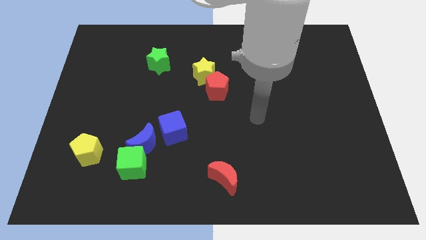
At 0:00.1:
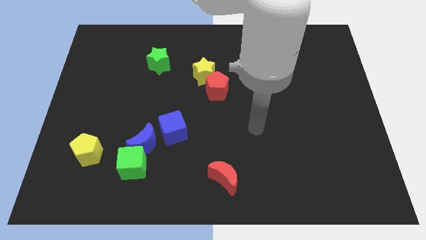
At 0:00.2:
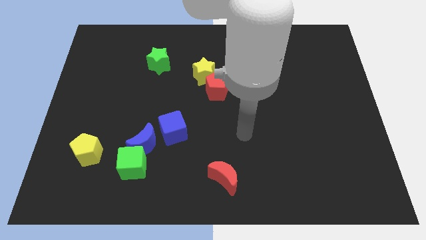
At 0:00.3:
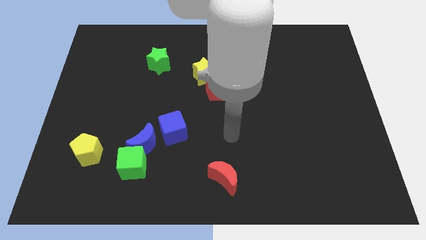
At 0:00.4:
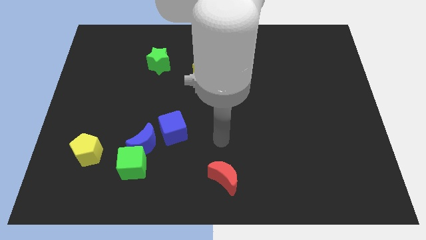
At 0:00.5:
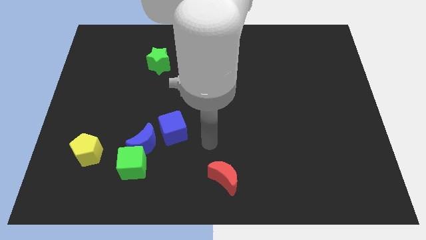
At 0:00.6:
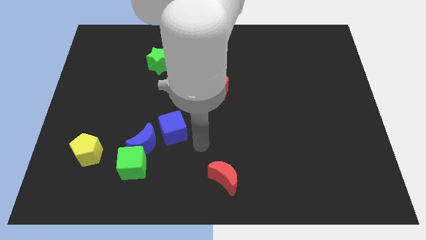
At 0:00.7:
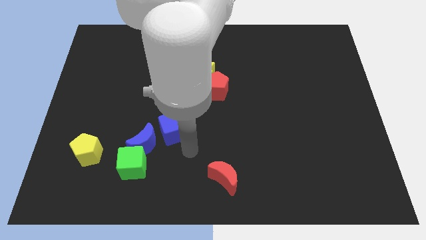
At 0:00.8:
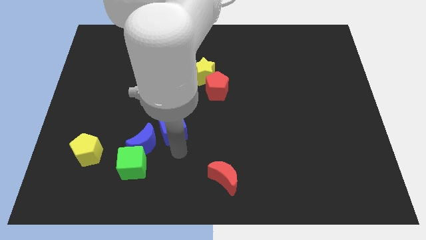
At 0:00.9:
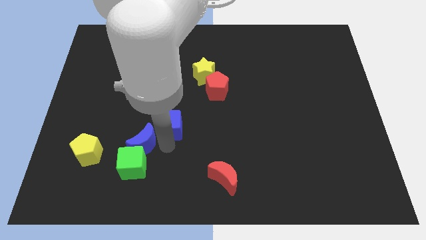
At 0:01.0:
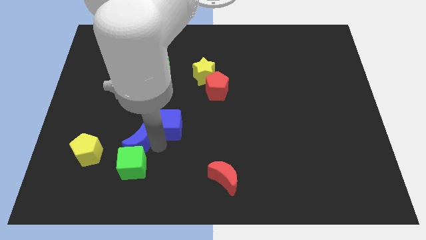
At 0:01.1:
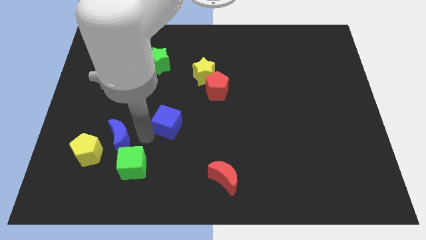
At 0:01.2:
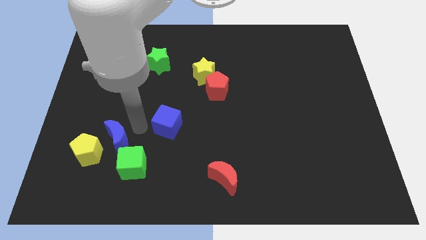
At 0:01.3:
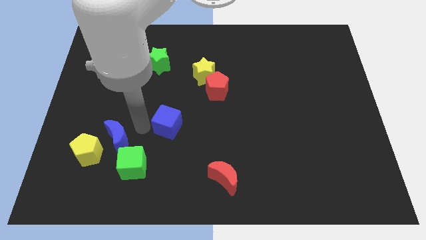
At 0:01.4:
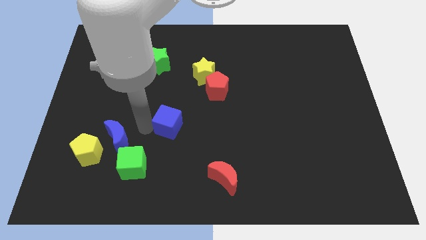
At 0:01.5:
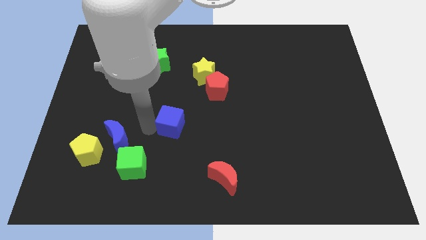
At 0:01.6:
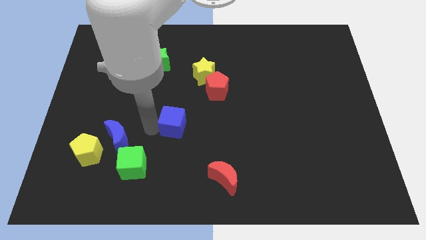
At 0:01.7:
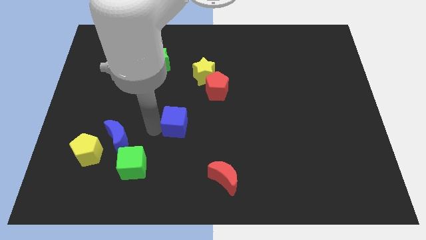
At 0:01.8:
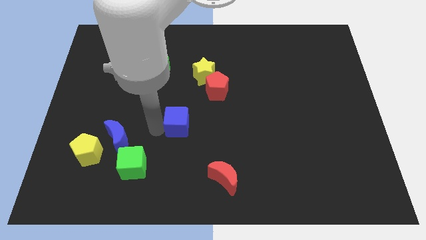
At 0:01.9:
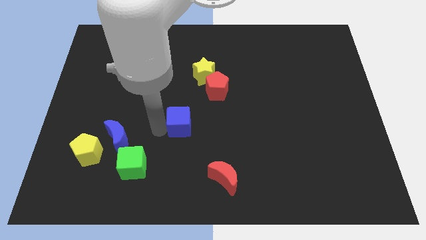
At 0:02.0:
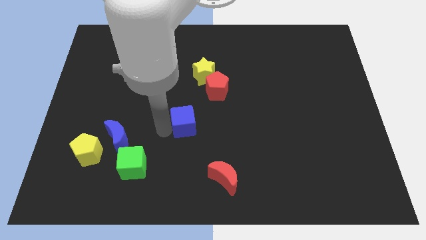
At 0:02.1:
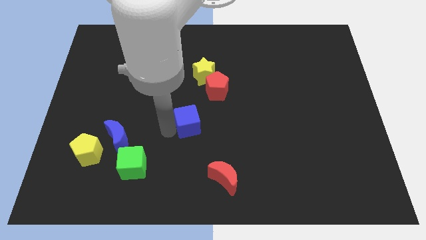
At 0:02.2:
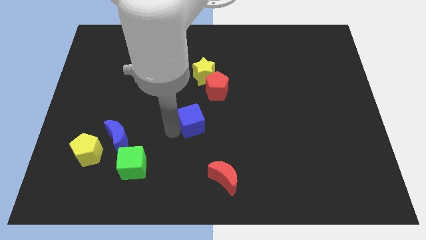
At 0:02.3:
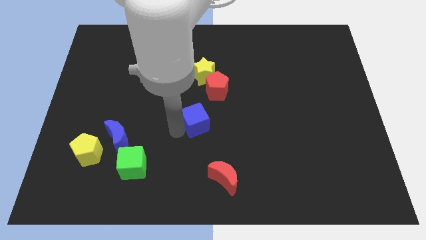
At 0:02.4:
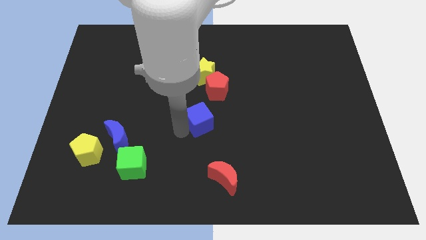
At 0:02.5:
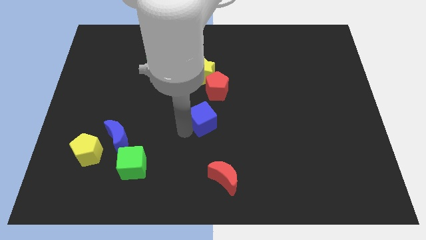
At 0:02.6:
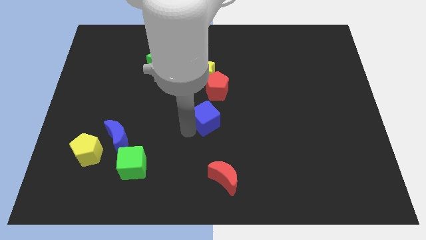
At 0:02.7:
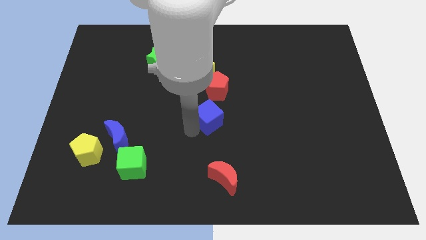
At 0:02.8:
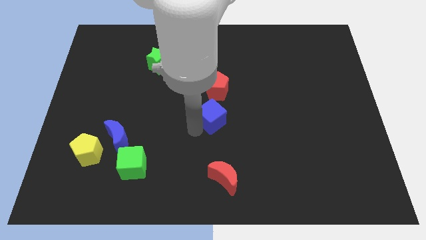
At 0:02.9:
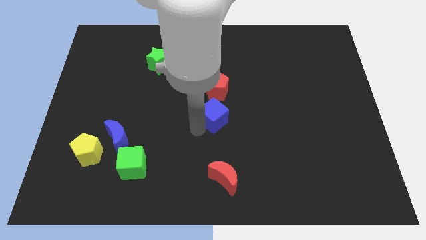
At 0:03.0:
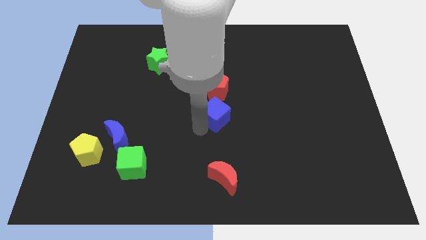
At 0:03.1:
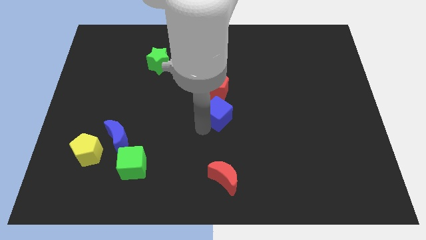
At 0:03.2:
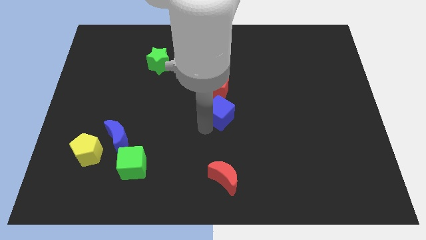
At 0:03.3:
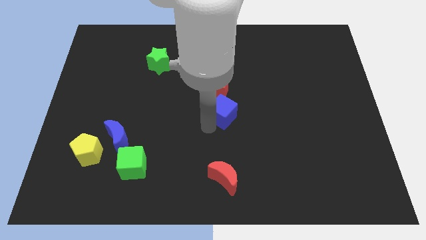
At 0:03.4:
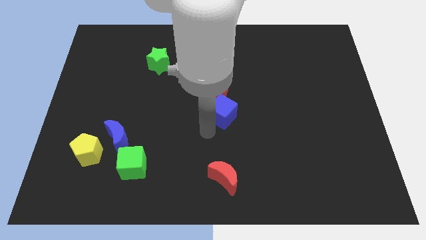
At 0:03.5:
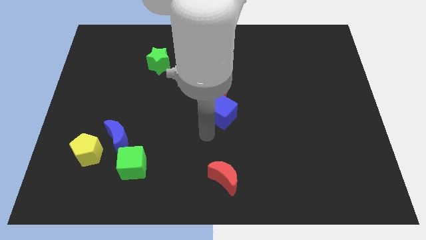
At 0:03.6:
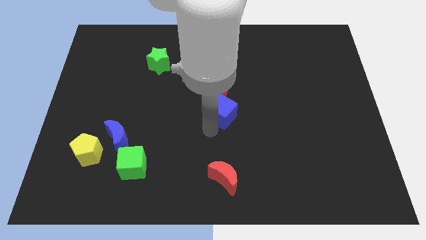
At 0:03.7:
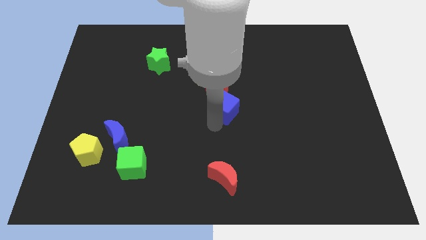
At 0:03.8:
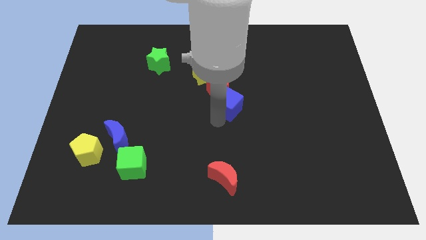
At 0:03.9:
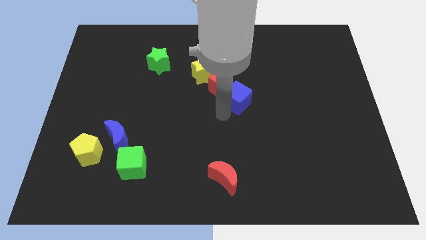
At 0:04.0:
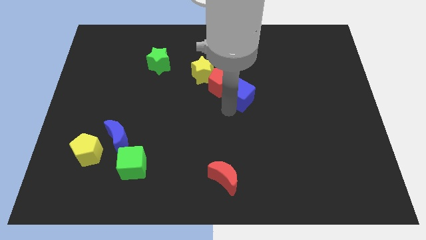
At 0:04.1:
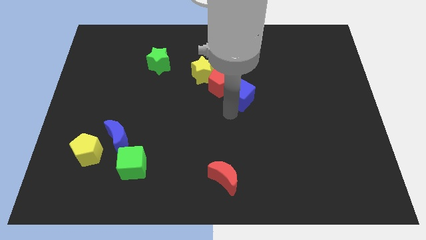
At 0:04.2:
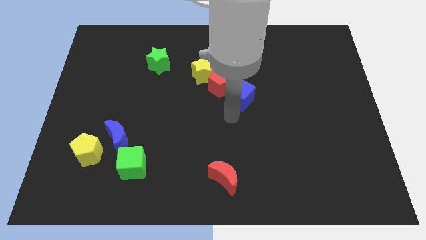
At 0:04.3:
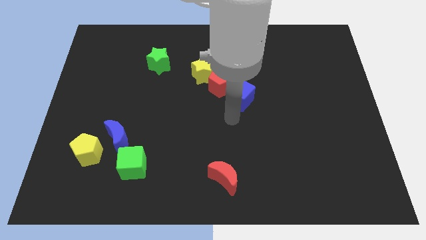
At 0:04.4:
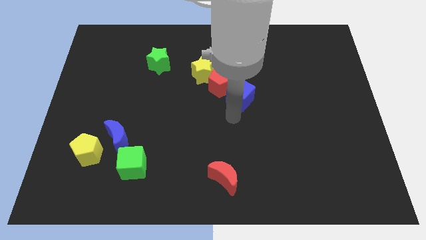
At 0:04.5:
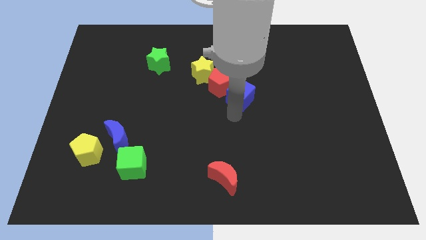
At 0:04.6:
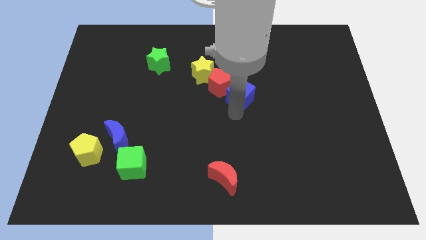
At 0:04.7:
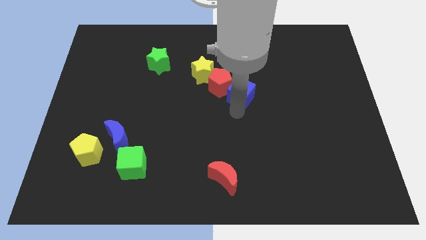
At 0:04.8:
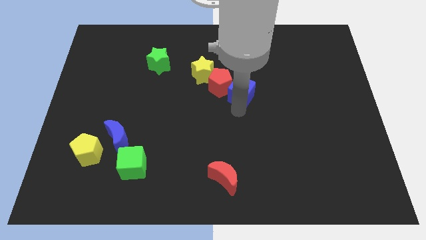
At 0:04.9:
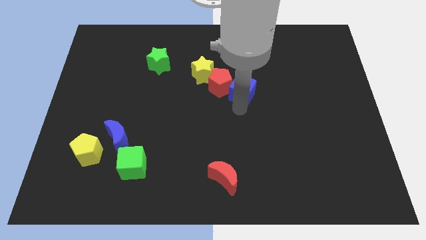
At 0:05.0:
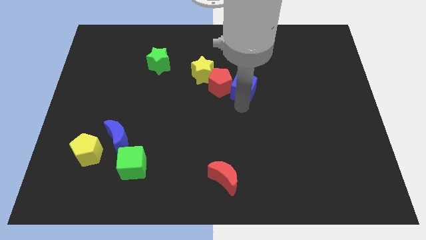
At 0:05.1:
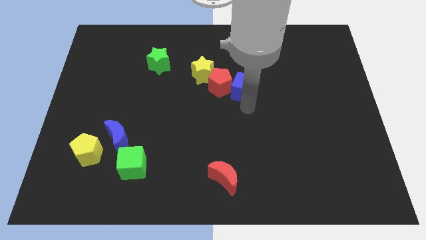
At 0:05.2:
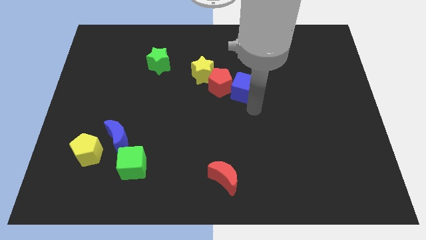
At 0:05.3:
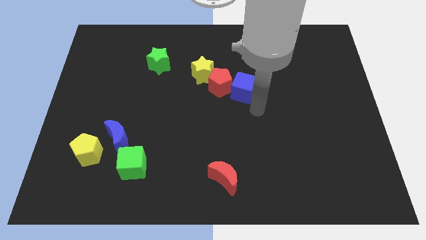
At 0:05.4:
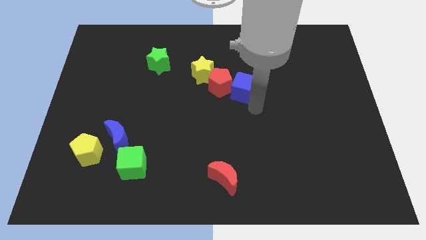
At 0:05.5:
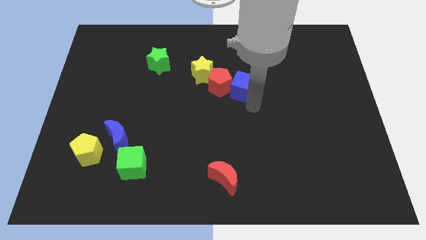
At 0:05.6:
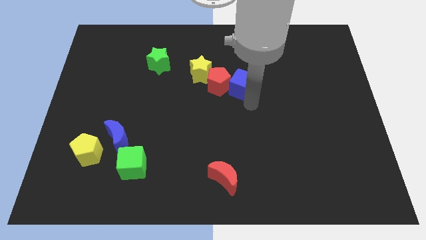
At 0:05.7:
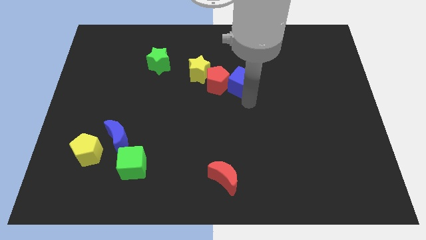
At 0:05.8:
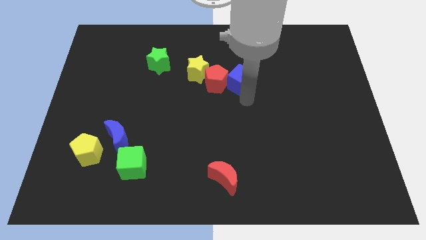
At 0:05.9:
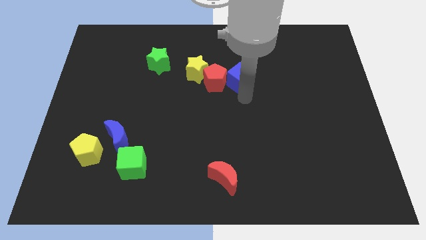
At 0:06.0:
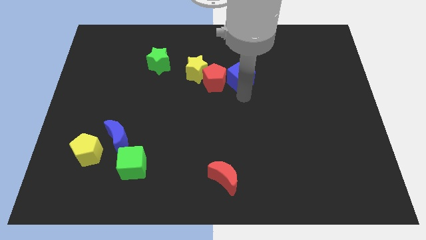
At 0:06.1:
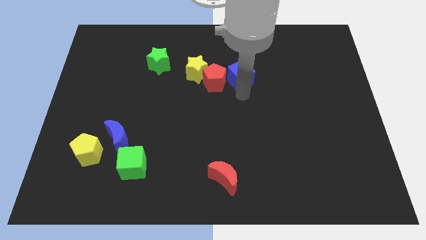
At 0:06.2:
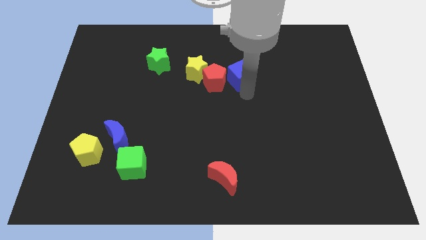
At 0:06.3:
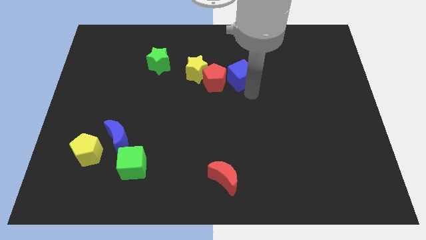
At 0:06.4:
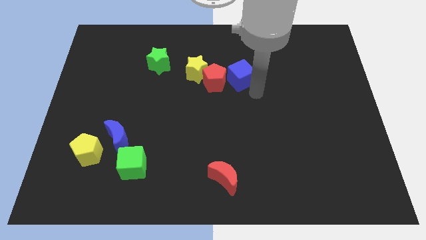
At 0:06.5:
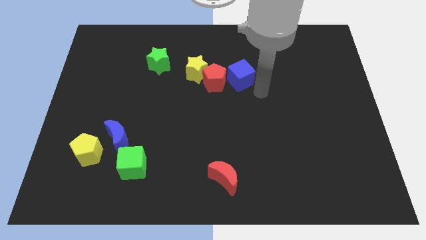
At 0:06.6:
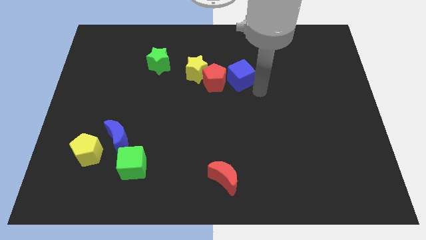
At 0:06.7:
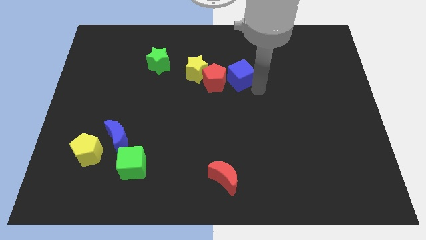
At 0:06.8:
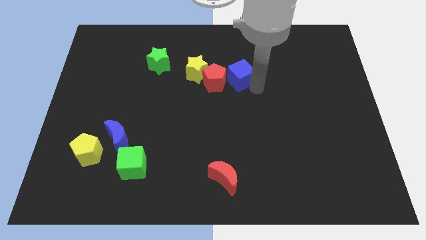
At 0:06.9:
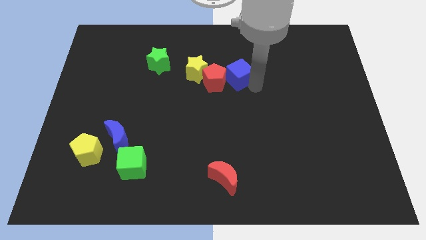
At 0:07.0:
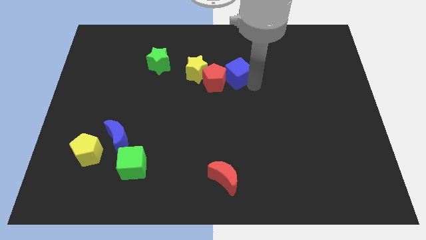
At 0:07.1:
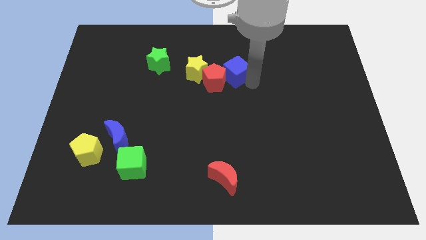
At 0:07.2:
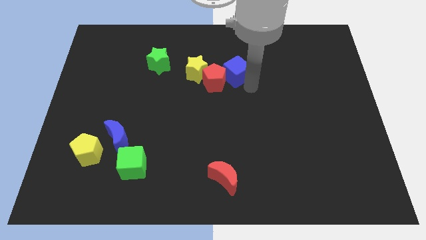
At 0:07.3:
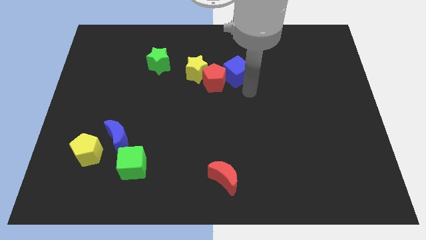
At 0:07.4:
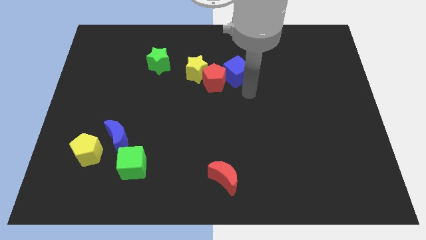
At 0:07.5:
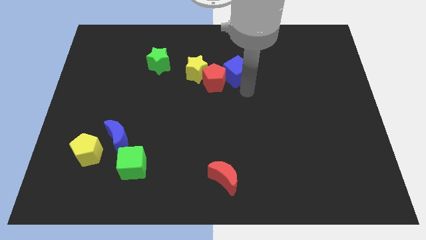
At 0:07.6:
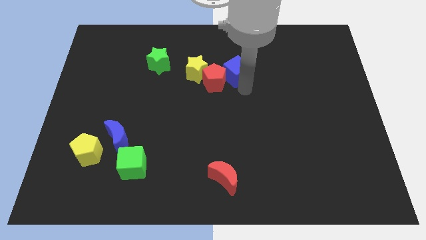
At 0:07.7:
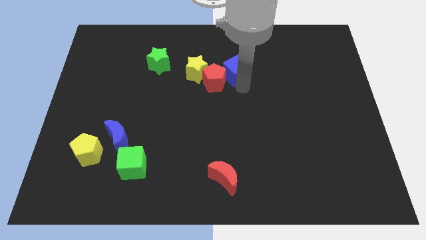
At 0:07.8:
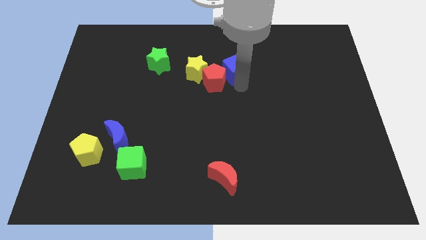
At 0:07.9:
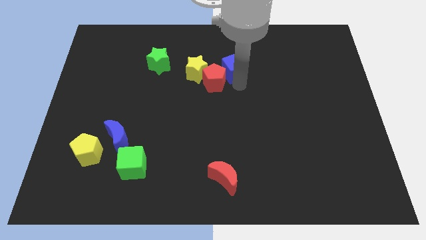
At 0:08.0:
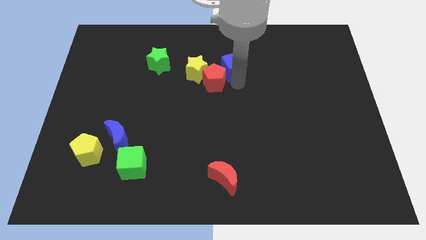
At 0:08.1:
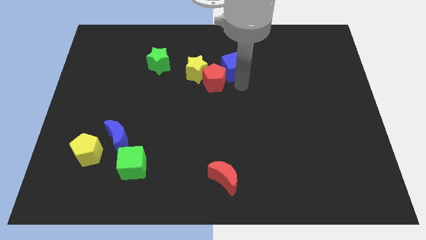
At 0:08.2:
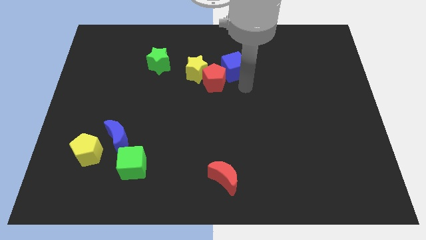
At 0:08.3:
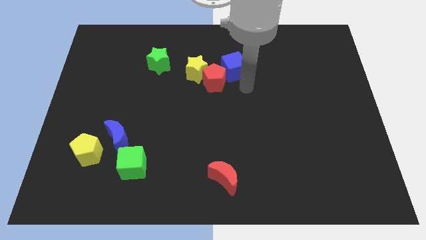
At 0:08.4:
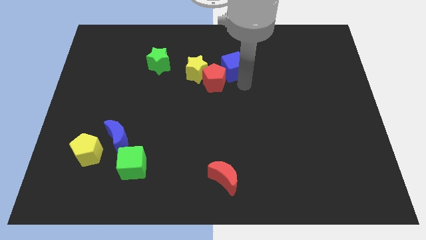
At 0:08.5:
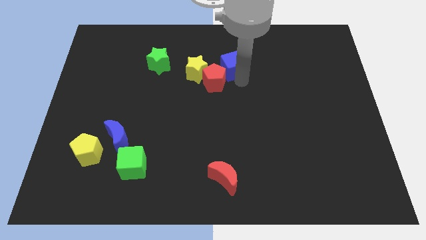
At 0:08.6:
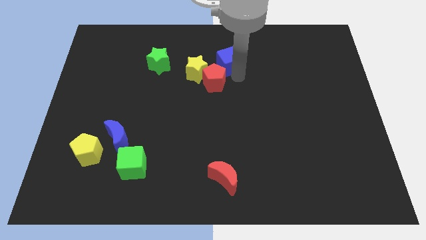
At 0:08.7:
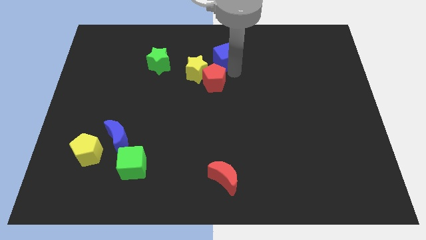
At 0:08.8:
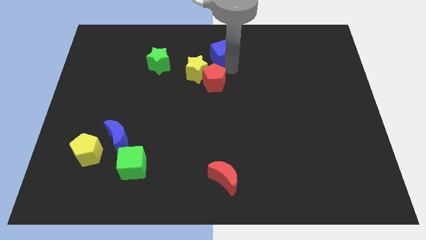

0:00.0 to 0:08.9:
move the blue cube to the top
